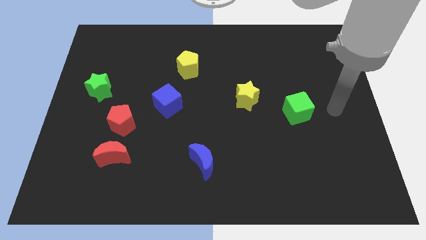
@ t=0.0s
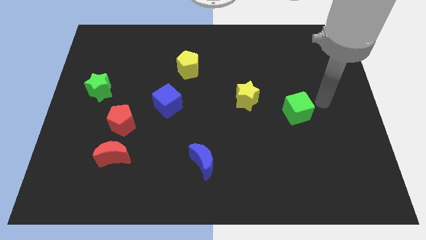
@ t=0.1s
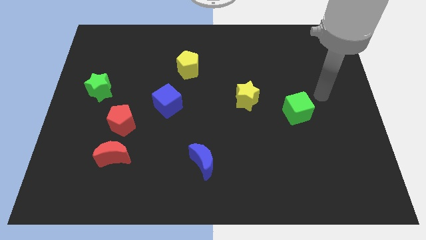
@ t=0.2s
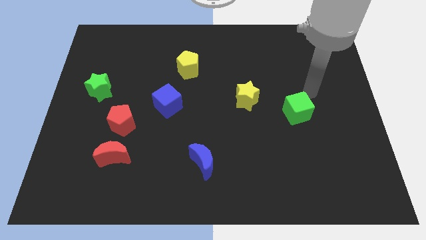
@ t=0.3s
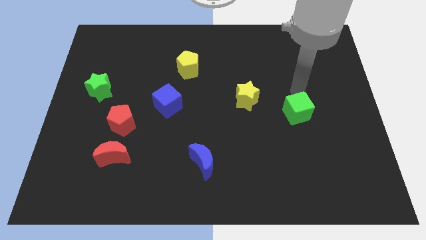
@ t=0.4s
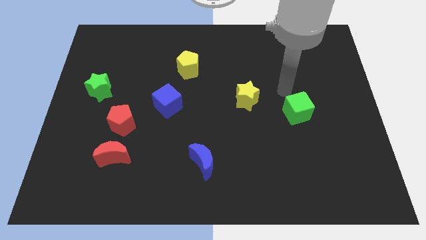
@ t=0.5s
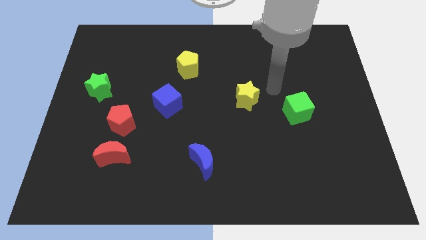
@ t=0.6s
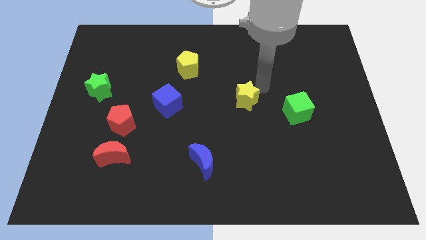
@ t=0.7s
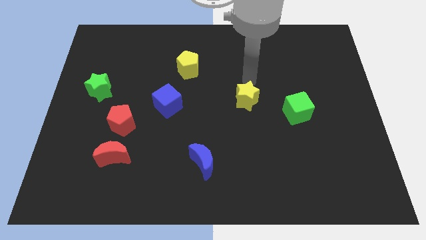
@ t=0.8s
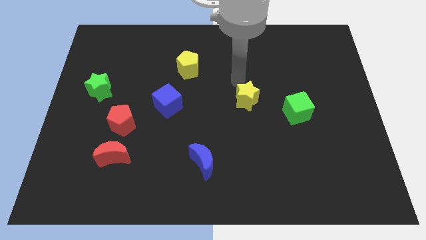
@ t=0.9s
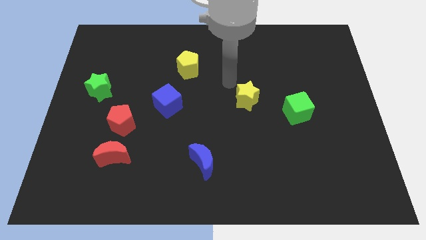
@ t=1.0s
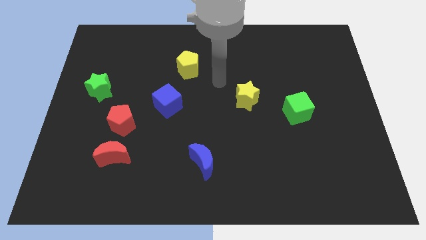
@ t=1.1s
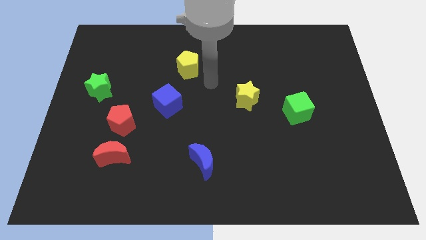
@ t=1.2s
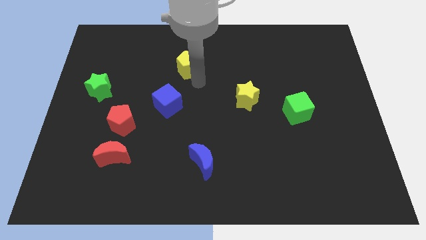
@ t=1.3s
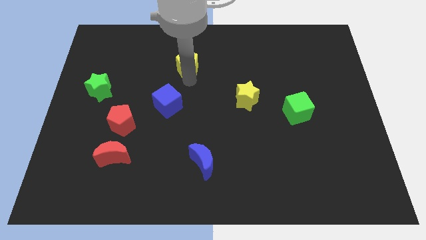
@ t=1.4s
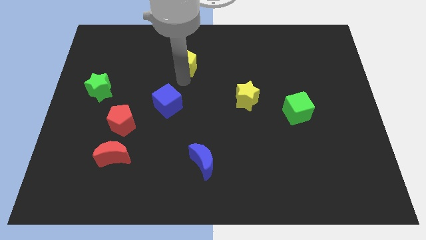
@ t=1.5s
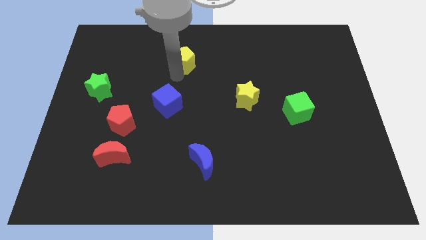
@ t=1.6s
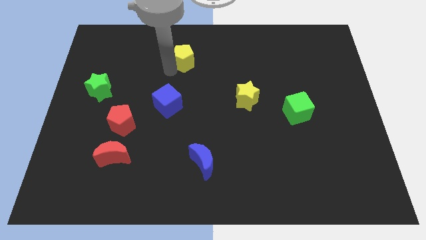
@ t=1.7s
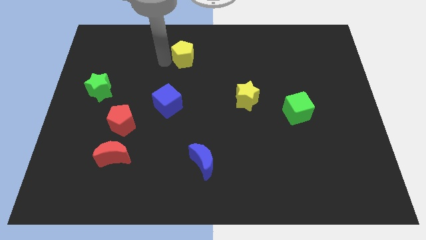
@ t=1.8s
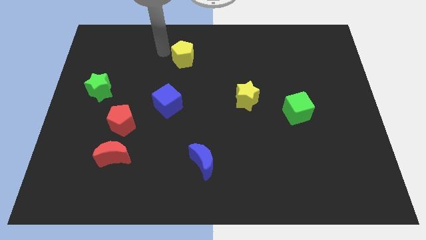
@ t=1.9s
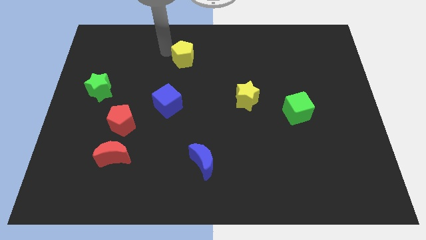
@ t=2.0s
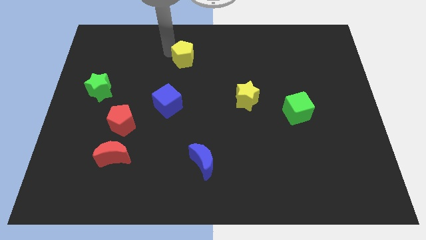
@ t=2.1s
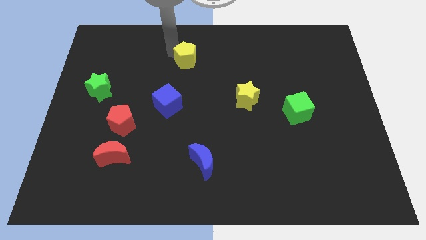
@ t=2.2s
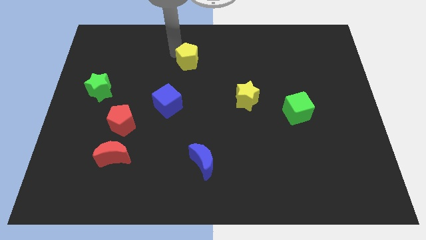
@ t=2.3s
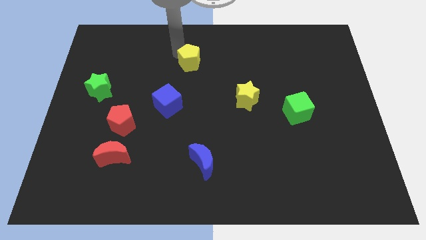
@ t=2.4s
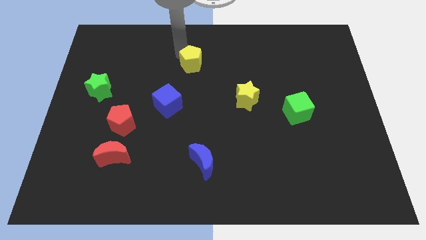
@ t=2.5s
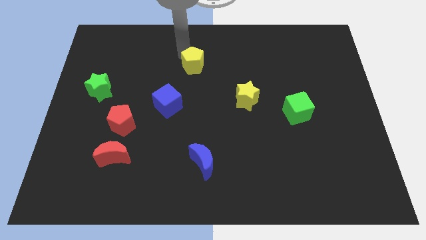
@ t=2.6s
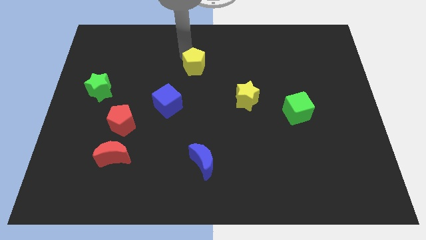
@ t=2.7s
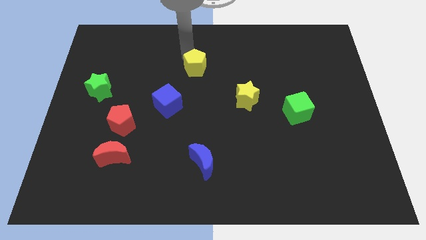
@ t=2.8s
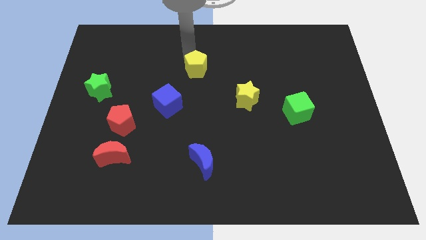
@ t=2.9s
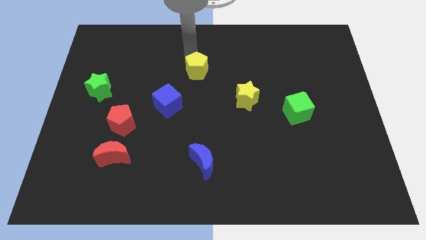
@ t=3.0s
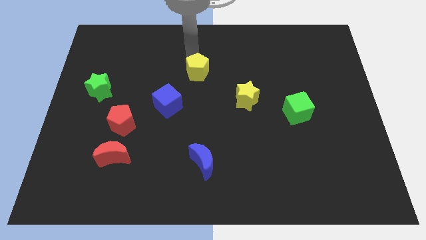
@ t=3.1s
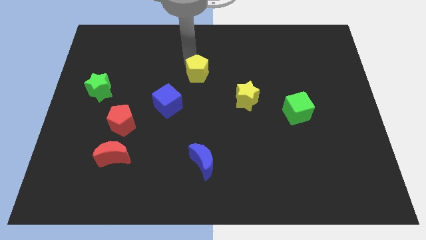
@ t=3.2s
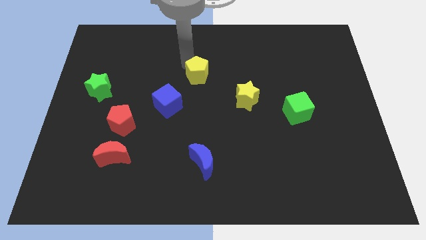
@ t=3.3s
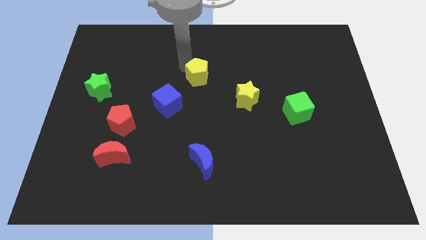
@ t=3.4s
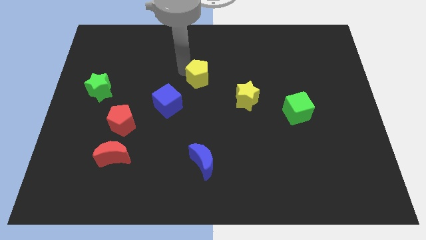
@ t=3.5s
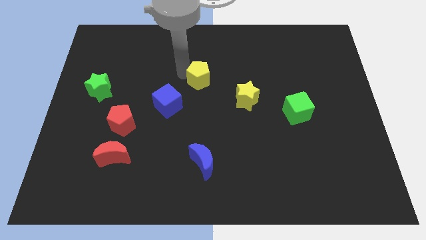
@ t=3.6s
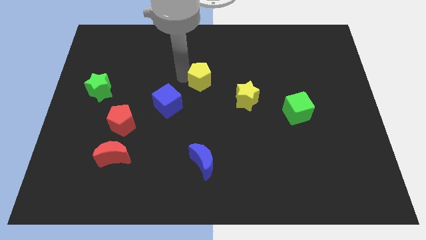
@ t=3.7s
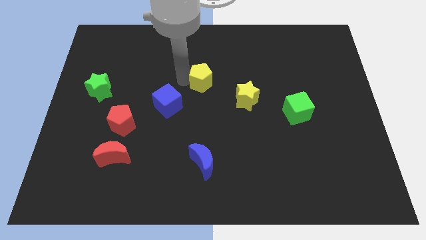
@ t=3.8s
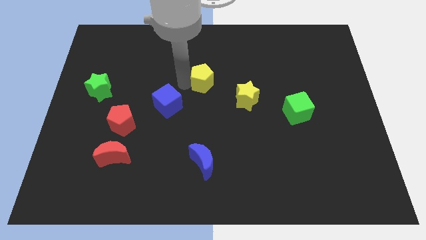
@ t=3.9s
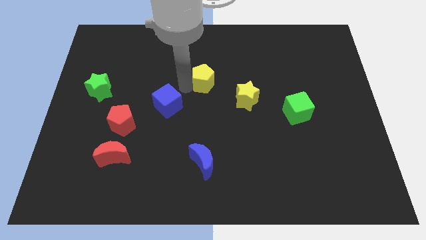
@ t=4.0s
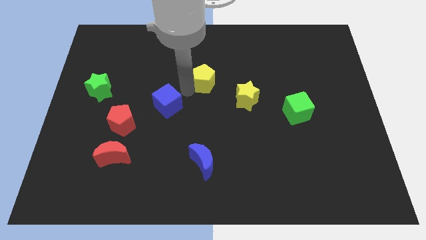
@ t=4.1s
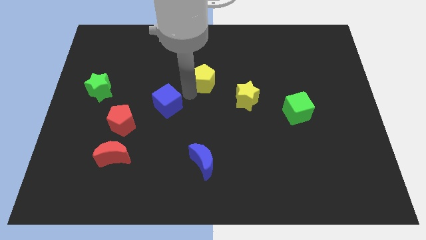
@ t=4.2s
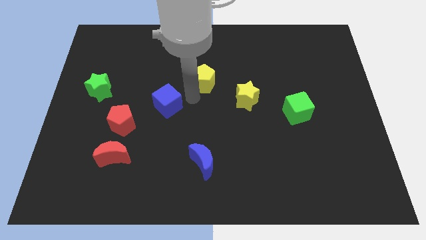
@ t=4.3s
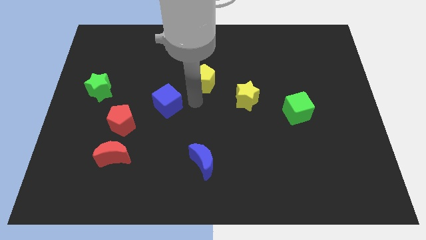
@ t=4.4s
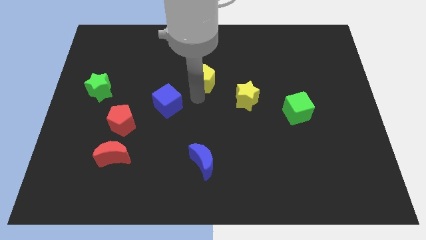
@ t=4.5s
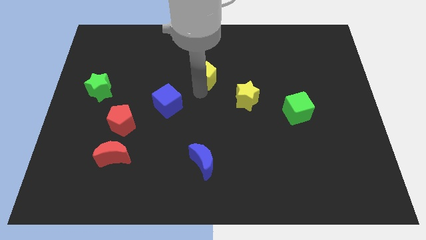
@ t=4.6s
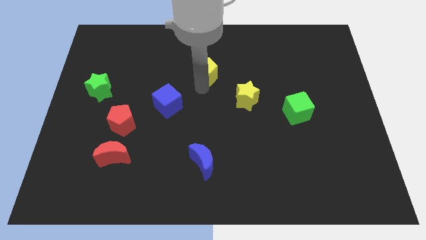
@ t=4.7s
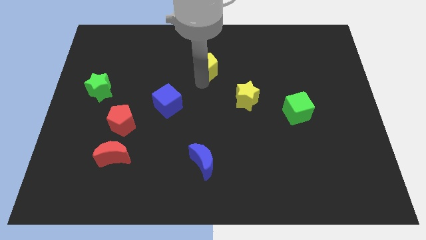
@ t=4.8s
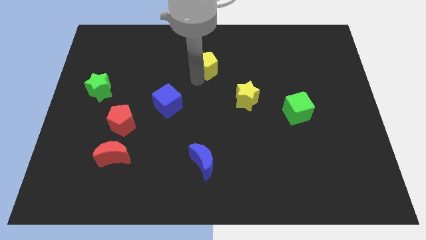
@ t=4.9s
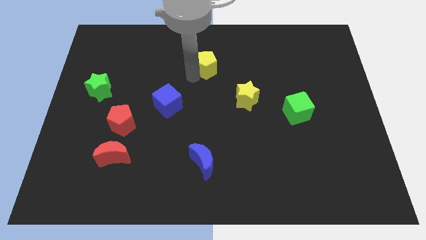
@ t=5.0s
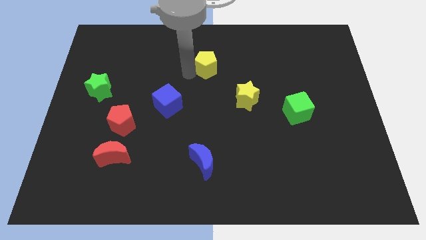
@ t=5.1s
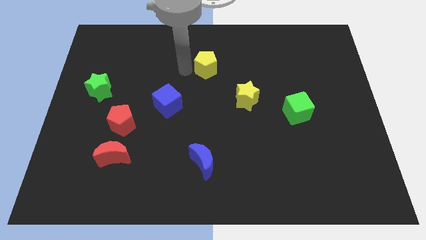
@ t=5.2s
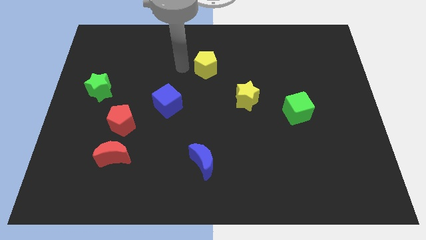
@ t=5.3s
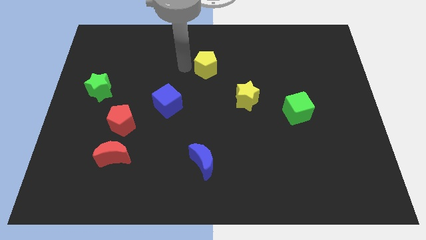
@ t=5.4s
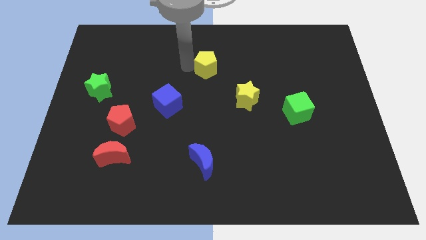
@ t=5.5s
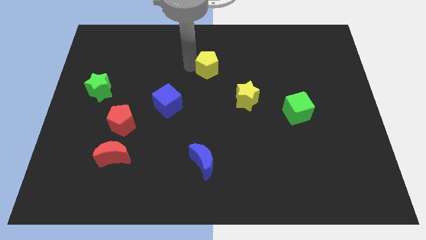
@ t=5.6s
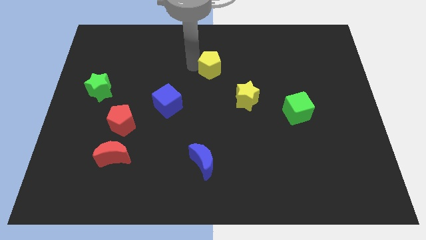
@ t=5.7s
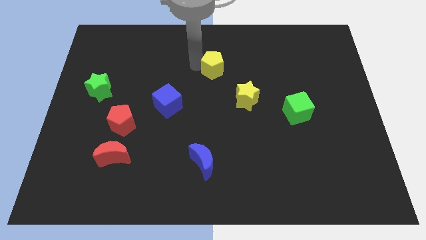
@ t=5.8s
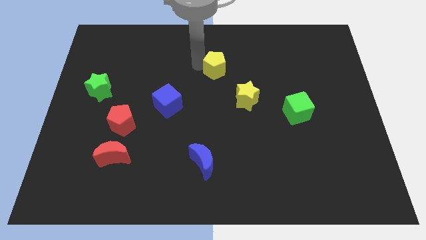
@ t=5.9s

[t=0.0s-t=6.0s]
slightly push the yellow pentagon right

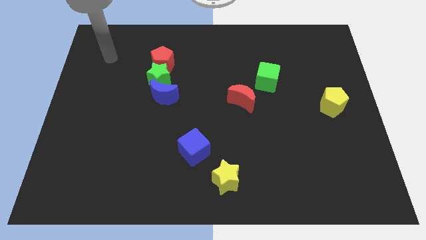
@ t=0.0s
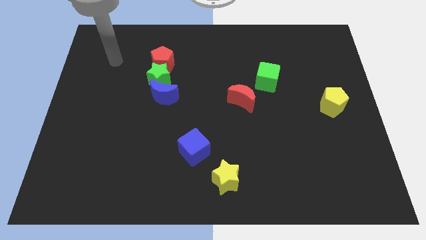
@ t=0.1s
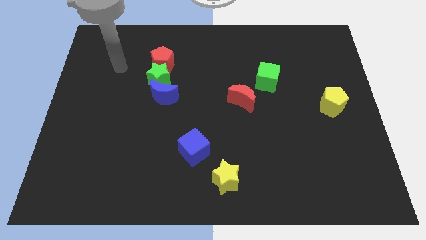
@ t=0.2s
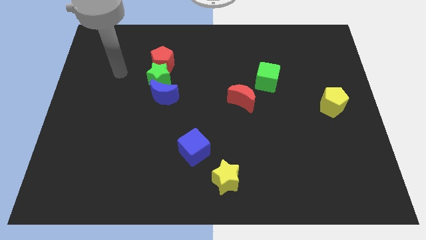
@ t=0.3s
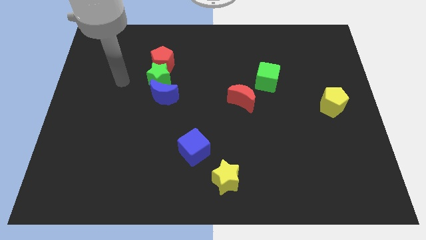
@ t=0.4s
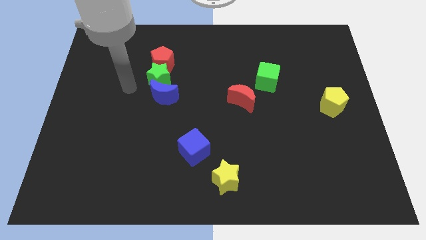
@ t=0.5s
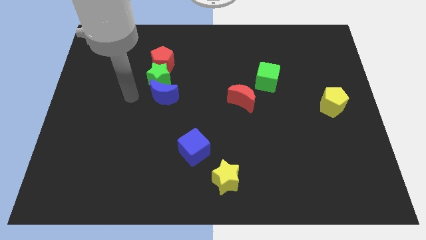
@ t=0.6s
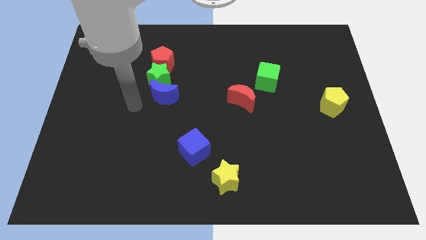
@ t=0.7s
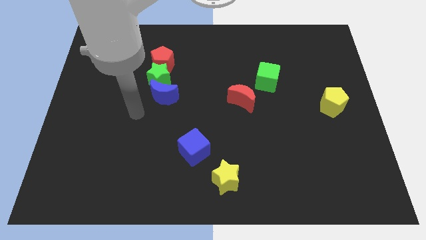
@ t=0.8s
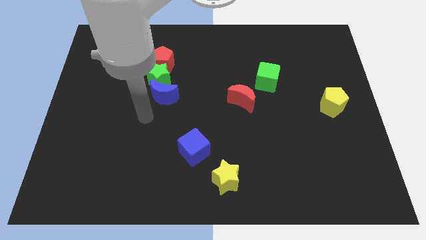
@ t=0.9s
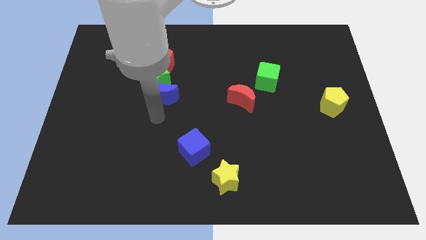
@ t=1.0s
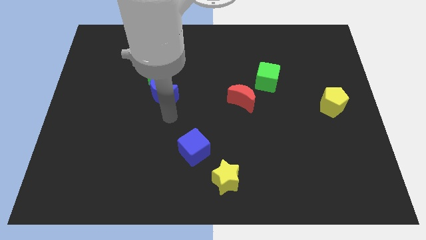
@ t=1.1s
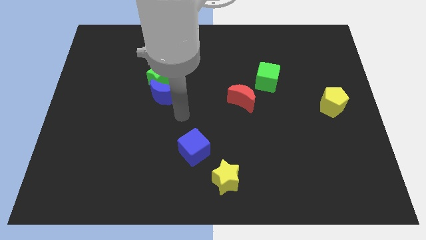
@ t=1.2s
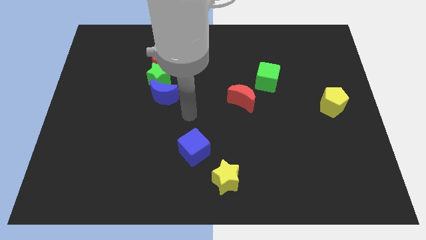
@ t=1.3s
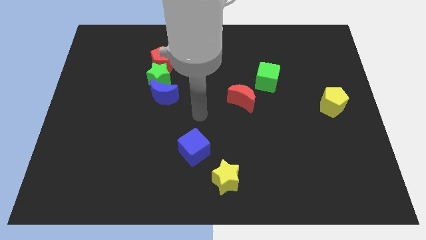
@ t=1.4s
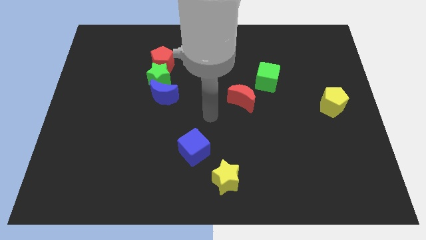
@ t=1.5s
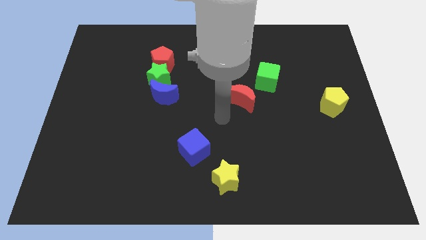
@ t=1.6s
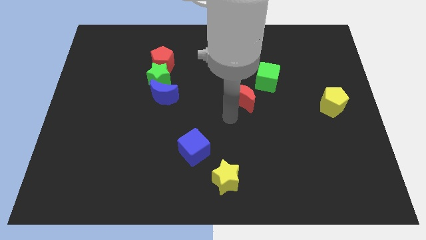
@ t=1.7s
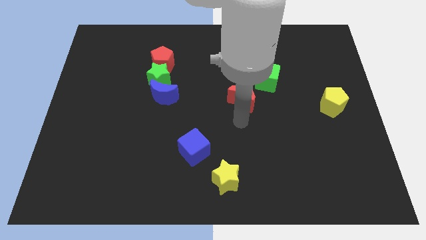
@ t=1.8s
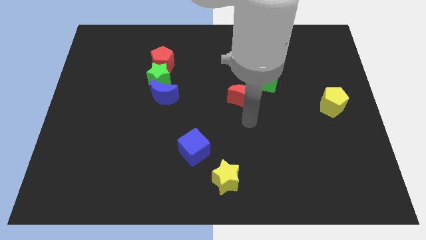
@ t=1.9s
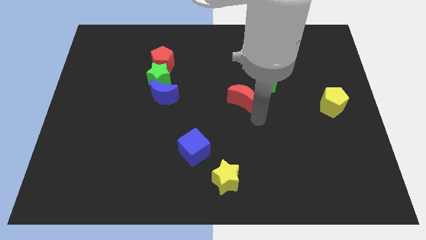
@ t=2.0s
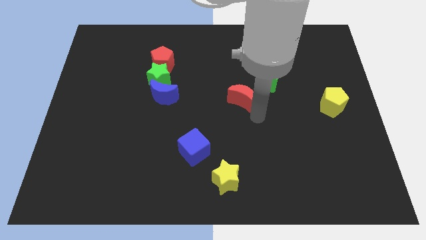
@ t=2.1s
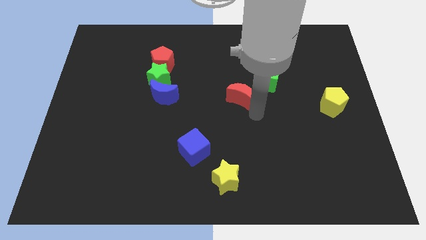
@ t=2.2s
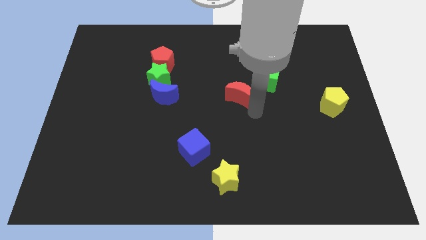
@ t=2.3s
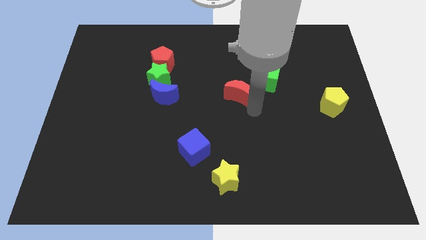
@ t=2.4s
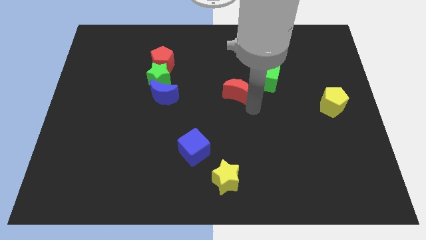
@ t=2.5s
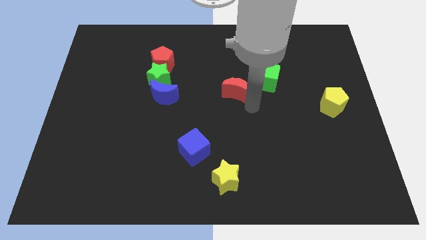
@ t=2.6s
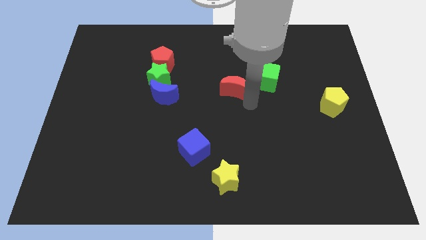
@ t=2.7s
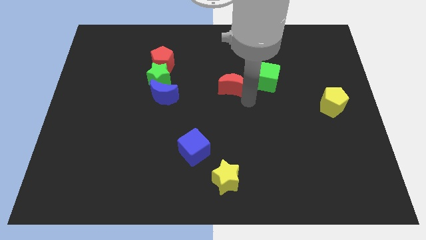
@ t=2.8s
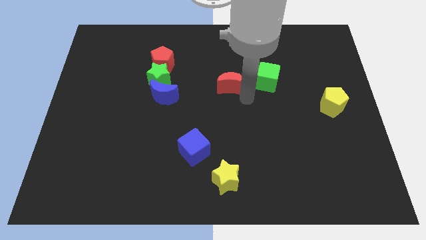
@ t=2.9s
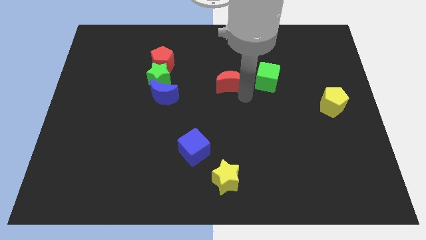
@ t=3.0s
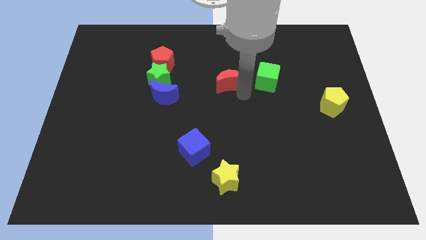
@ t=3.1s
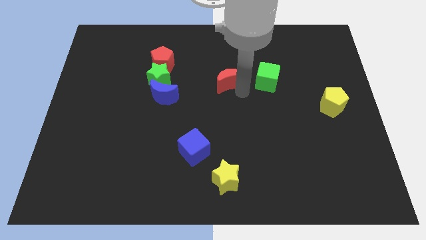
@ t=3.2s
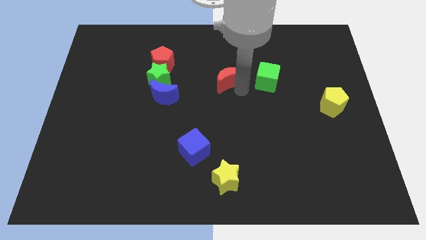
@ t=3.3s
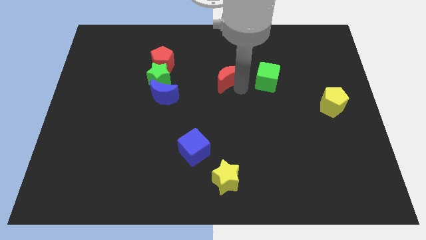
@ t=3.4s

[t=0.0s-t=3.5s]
slightly slide the red moon up and to the left
